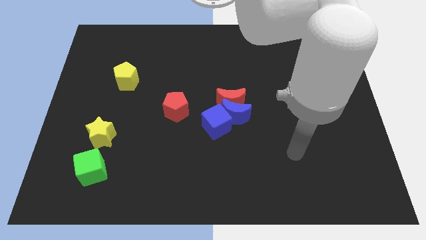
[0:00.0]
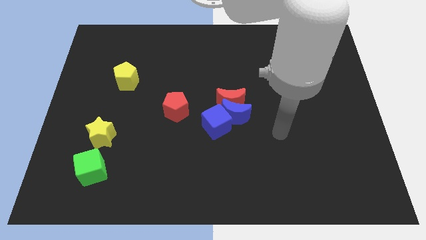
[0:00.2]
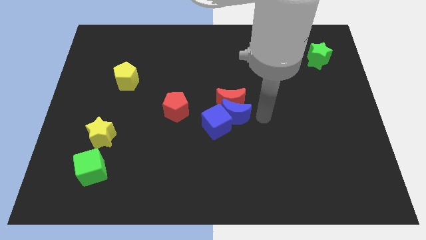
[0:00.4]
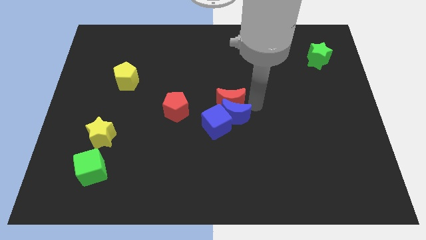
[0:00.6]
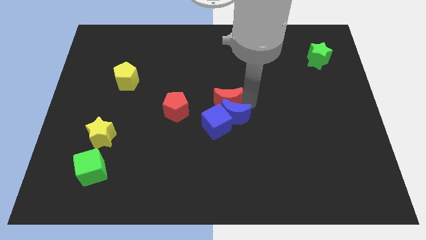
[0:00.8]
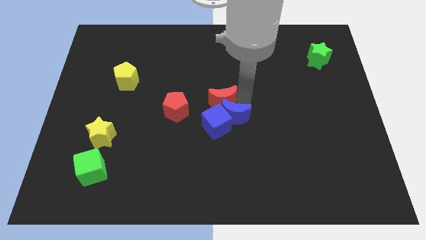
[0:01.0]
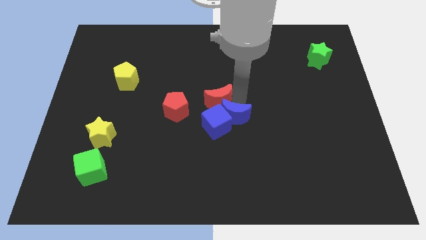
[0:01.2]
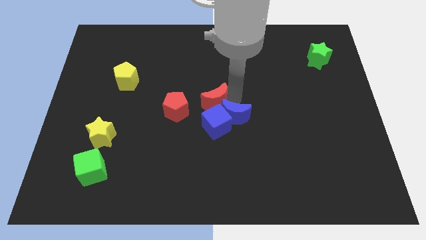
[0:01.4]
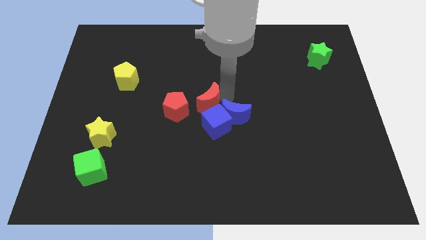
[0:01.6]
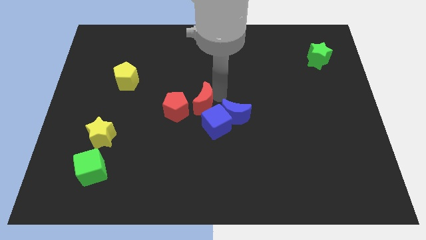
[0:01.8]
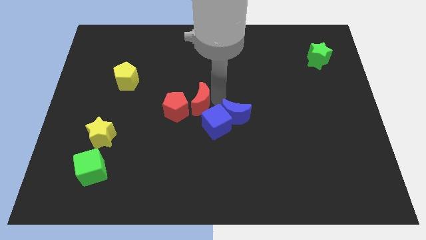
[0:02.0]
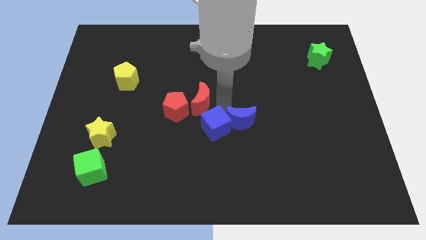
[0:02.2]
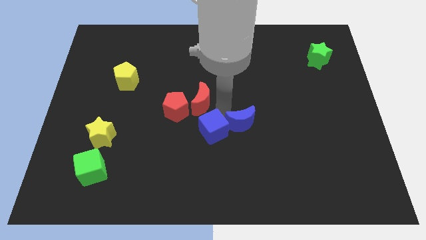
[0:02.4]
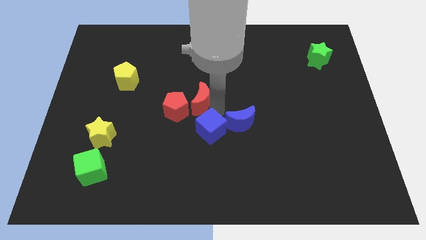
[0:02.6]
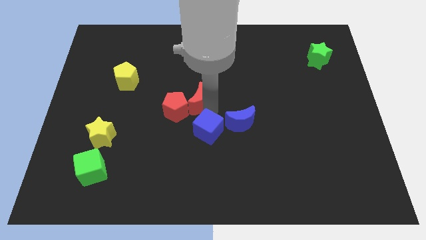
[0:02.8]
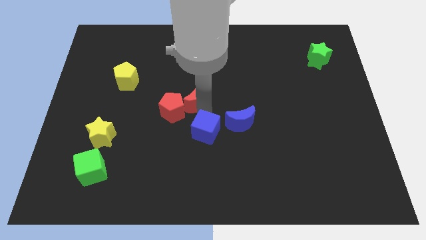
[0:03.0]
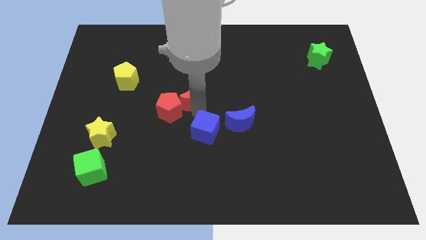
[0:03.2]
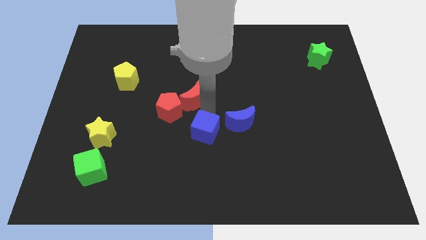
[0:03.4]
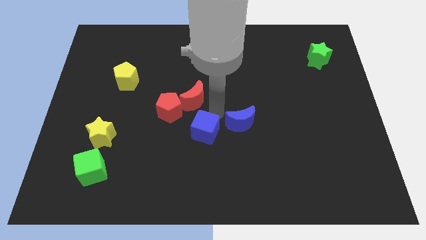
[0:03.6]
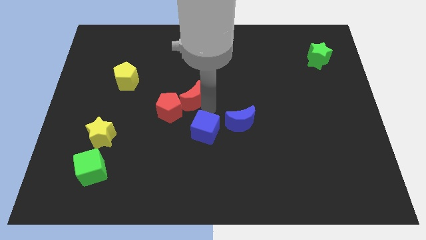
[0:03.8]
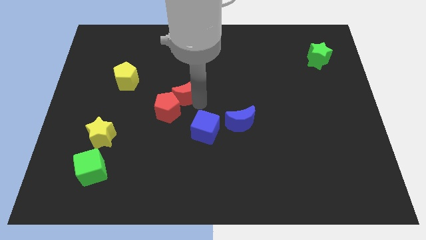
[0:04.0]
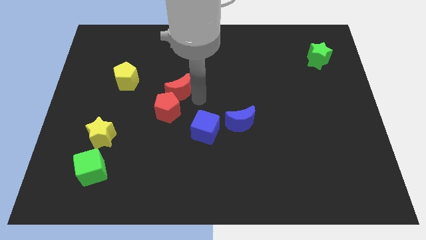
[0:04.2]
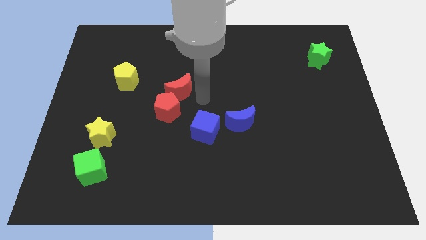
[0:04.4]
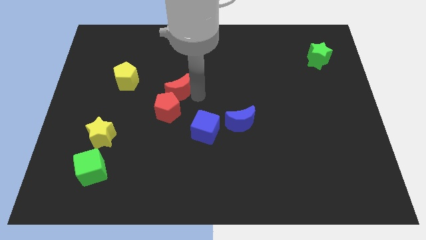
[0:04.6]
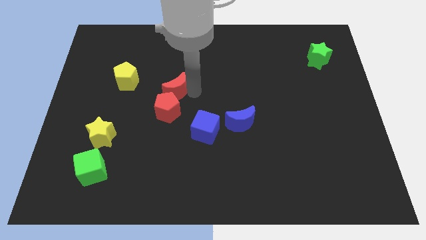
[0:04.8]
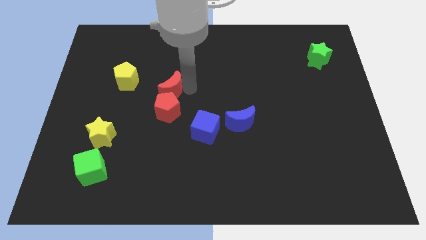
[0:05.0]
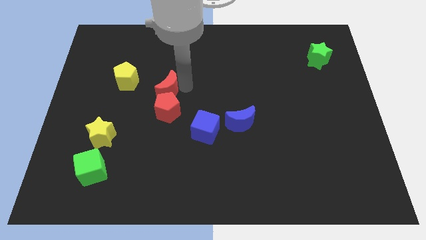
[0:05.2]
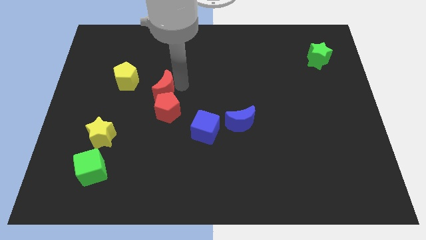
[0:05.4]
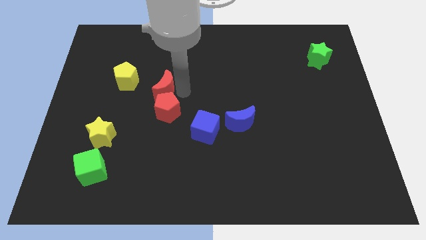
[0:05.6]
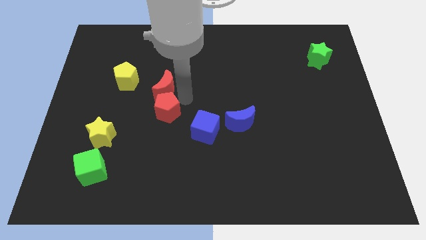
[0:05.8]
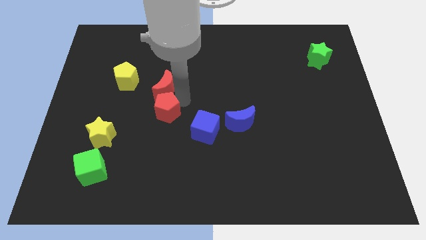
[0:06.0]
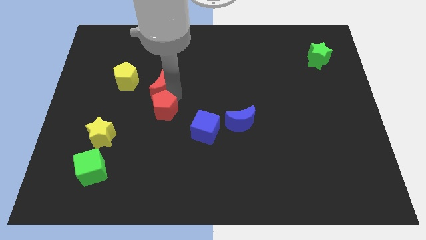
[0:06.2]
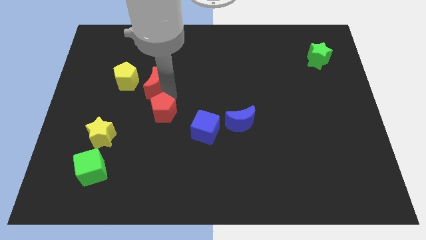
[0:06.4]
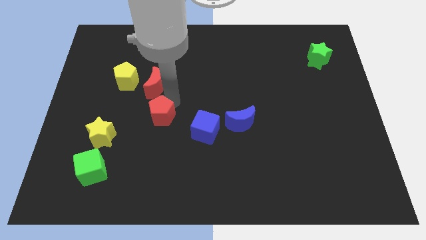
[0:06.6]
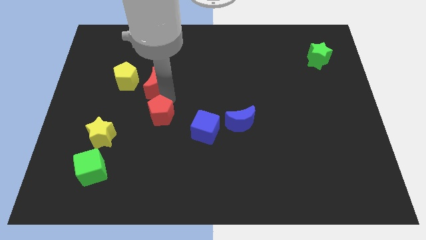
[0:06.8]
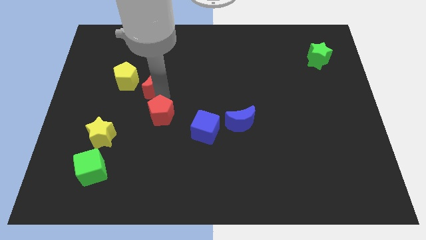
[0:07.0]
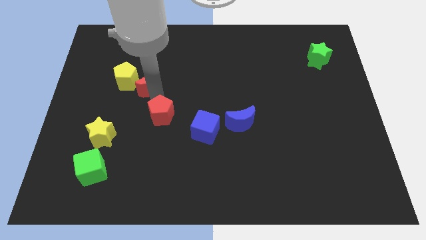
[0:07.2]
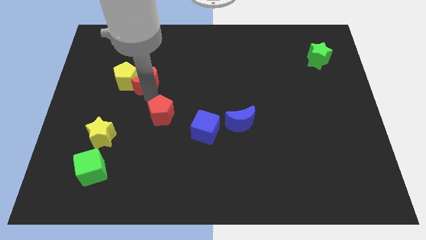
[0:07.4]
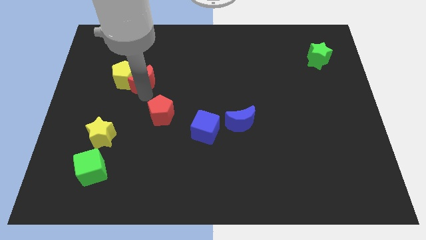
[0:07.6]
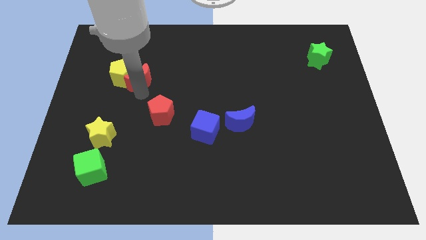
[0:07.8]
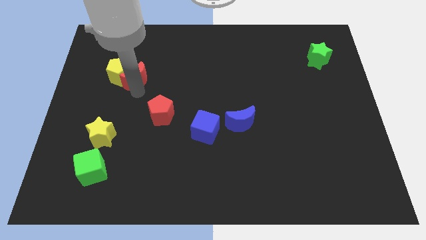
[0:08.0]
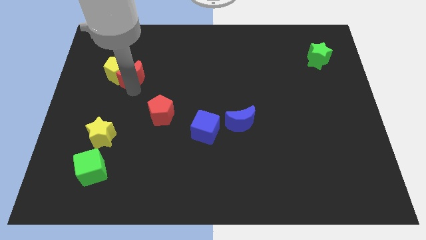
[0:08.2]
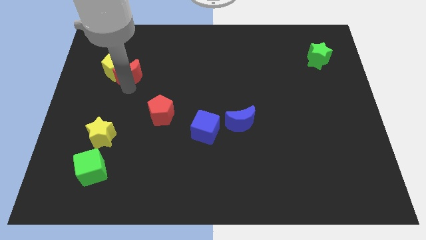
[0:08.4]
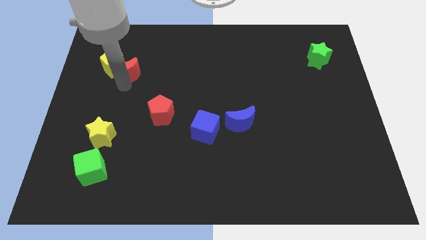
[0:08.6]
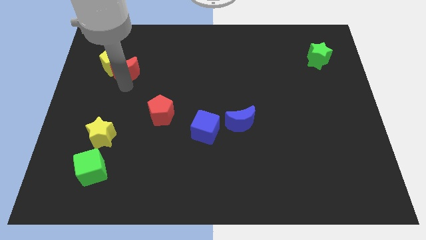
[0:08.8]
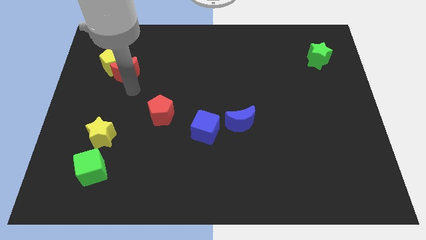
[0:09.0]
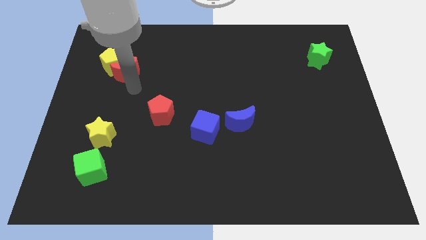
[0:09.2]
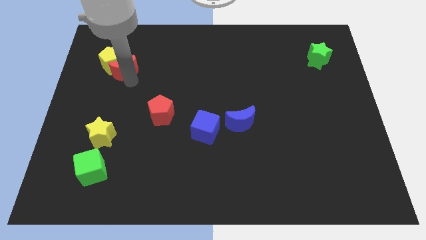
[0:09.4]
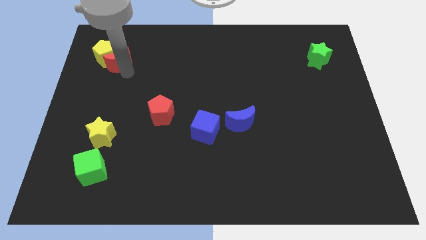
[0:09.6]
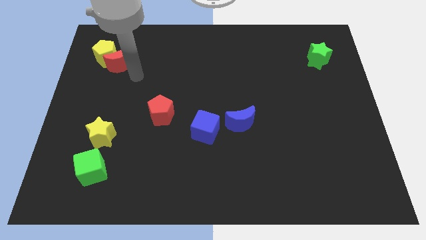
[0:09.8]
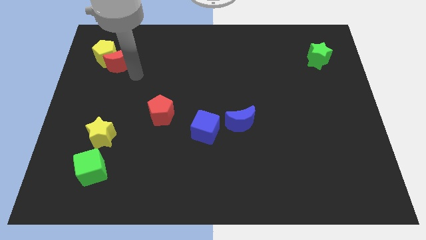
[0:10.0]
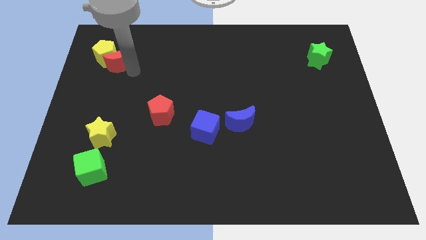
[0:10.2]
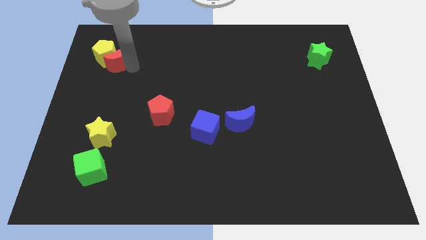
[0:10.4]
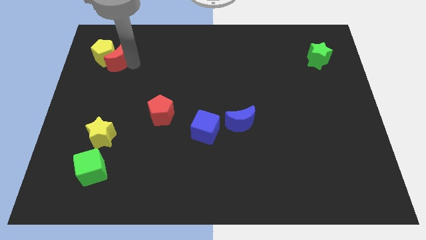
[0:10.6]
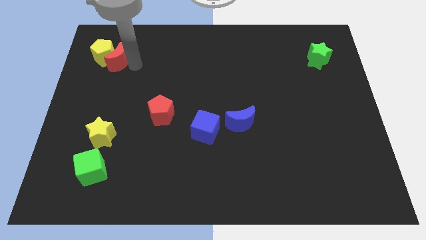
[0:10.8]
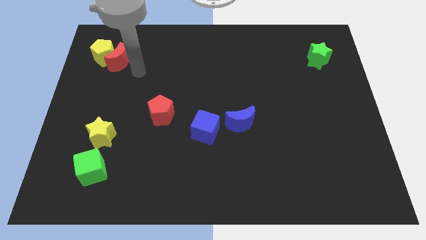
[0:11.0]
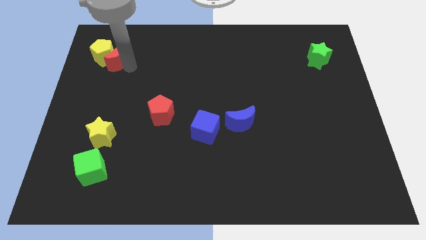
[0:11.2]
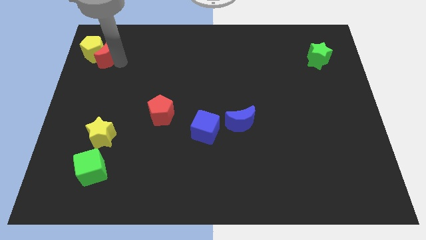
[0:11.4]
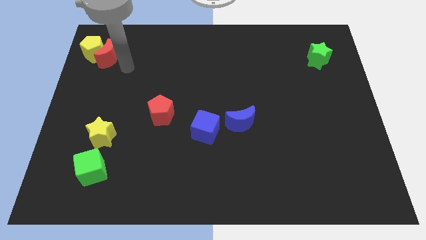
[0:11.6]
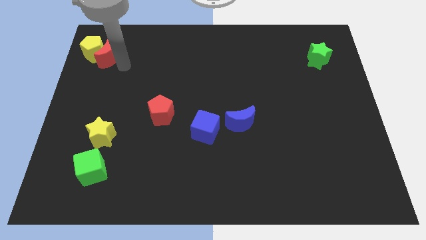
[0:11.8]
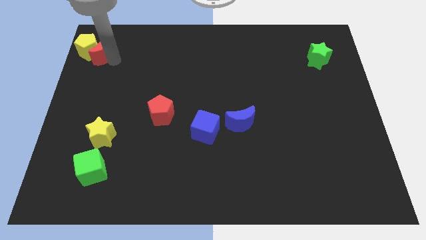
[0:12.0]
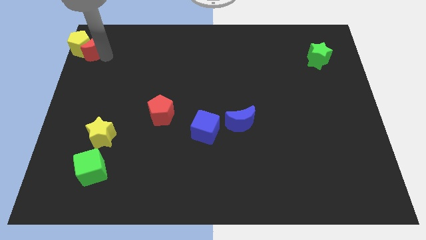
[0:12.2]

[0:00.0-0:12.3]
move the red moon to the top left corner
